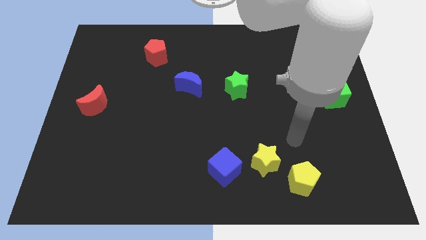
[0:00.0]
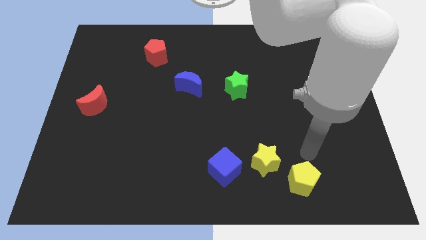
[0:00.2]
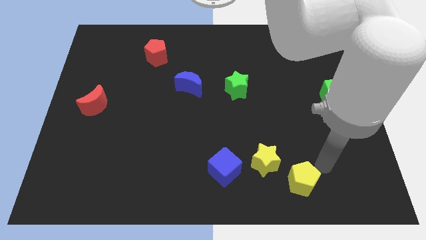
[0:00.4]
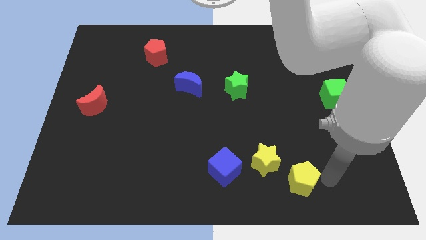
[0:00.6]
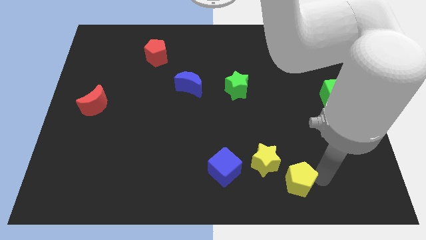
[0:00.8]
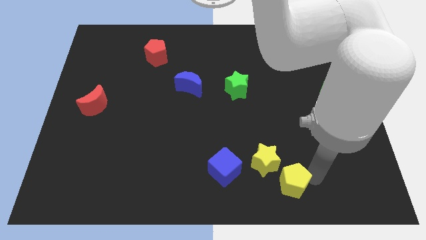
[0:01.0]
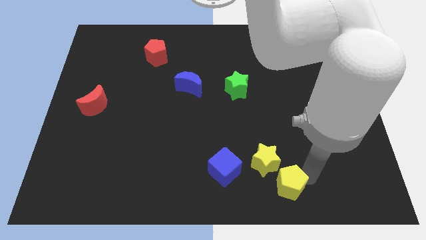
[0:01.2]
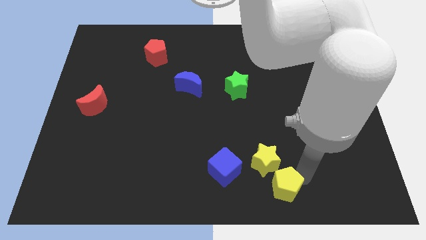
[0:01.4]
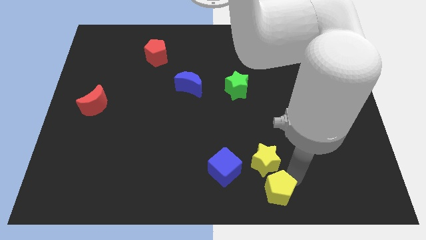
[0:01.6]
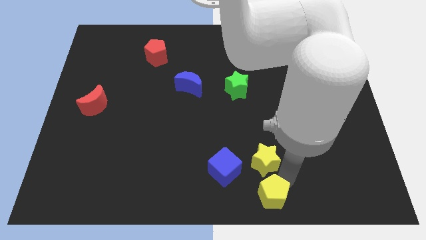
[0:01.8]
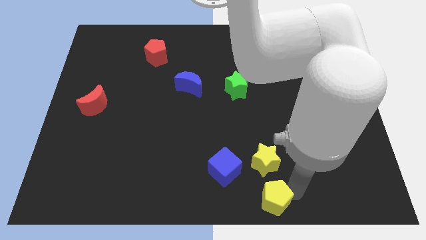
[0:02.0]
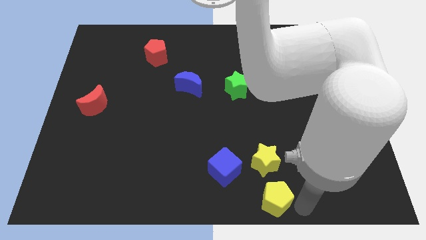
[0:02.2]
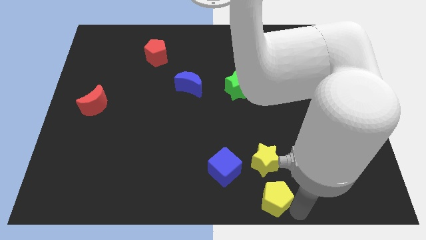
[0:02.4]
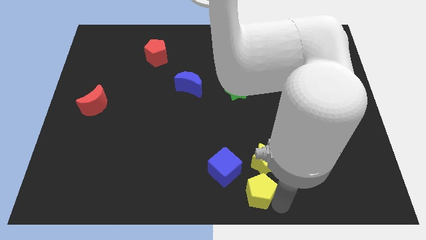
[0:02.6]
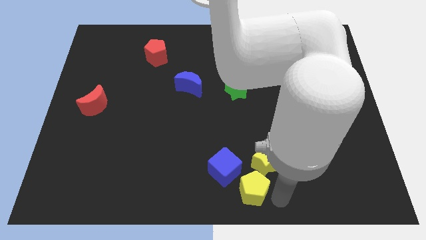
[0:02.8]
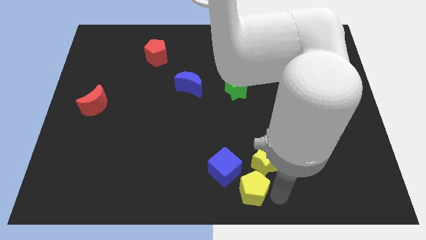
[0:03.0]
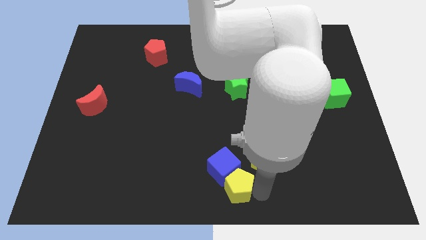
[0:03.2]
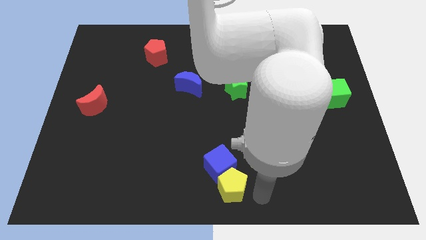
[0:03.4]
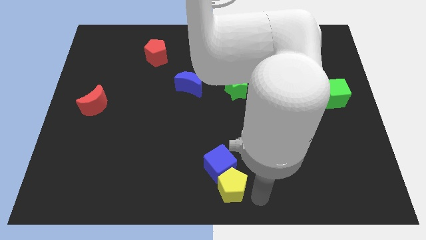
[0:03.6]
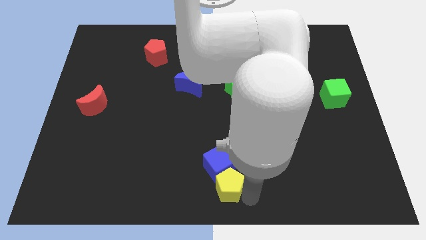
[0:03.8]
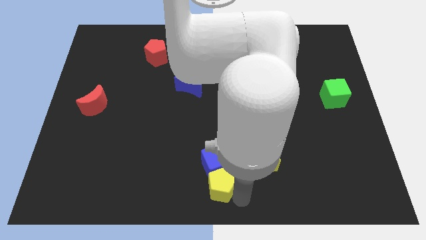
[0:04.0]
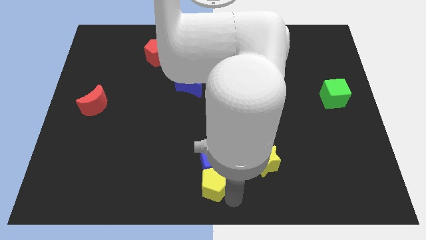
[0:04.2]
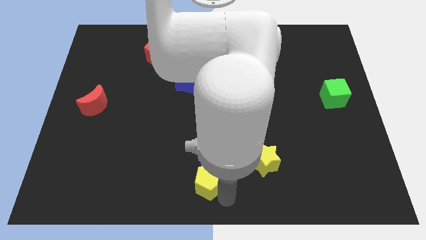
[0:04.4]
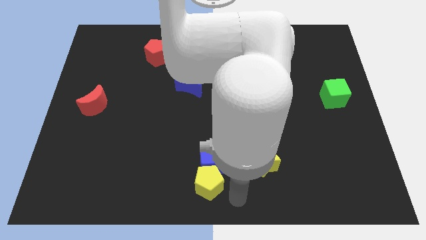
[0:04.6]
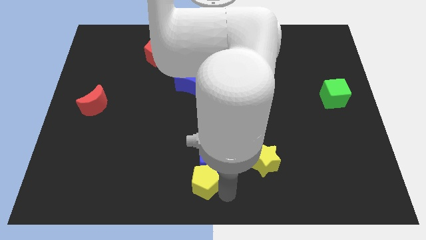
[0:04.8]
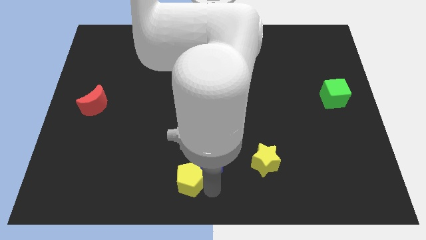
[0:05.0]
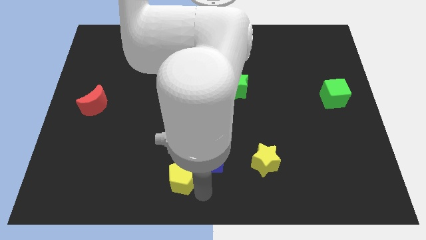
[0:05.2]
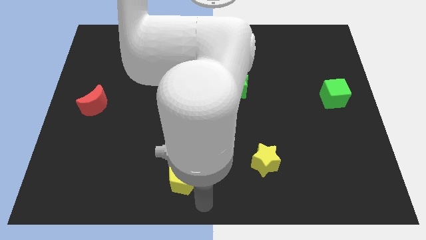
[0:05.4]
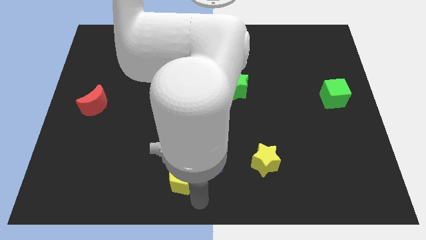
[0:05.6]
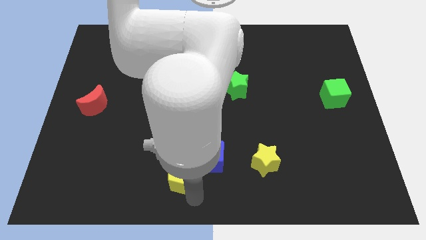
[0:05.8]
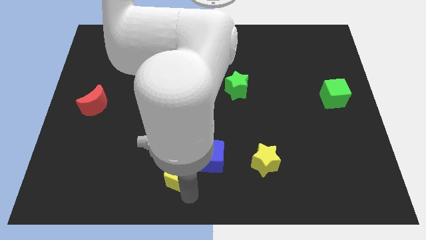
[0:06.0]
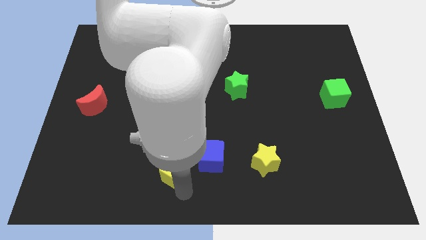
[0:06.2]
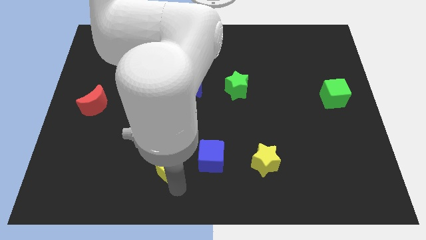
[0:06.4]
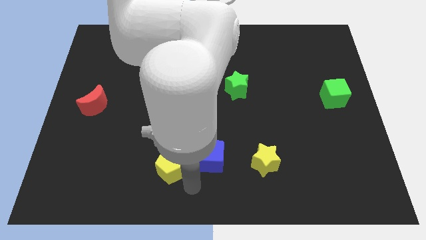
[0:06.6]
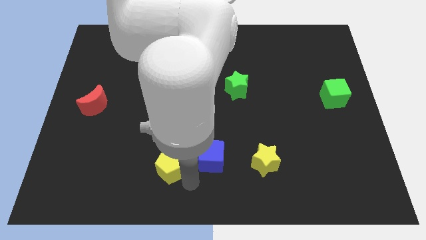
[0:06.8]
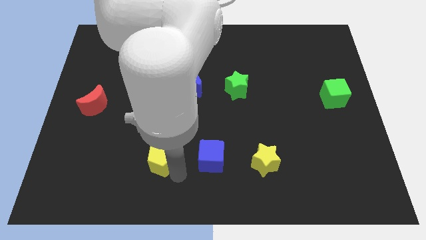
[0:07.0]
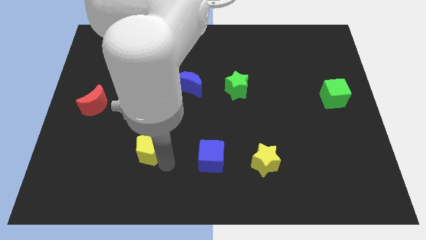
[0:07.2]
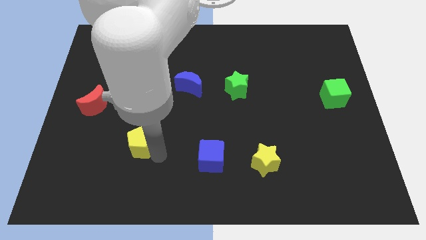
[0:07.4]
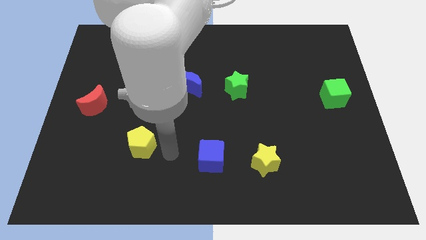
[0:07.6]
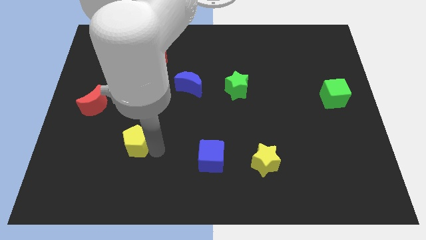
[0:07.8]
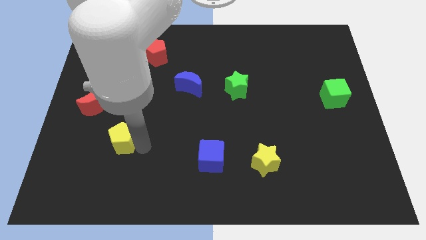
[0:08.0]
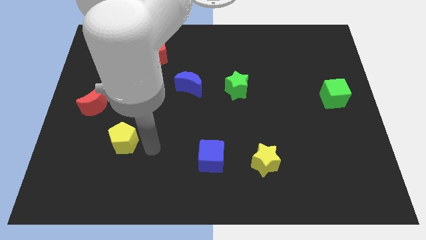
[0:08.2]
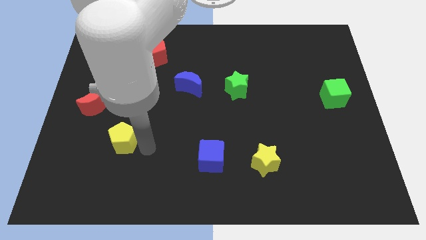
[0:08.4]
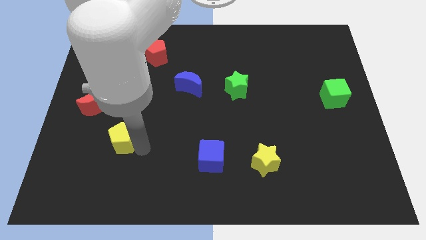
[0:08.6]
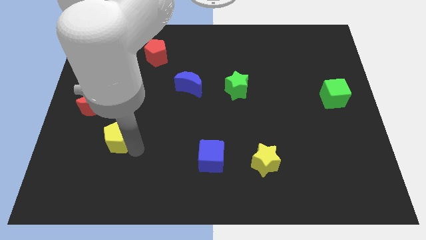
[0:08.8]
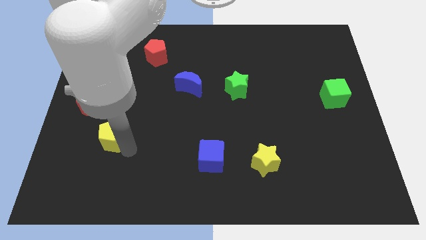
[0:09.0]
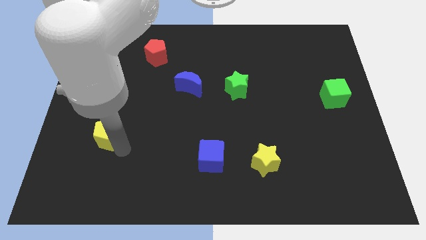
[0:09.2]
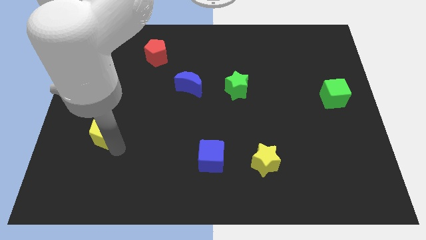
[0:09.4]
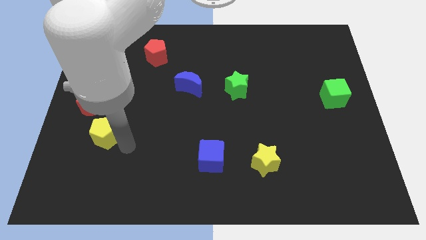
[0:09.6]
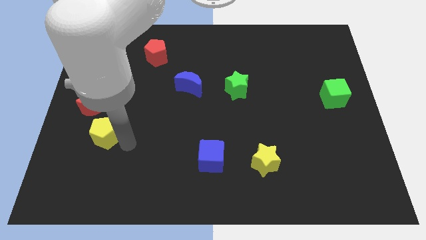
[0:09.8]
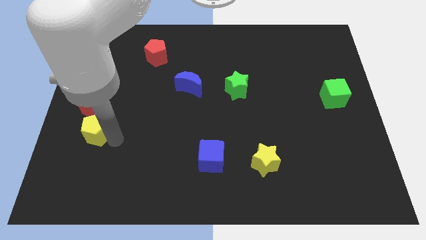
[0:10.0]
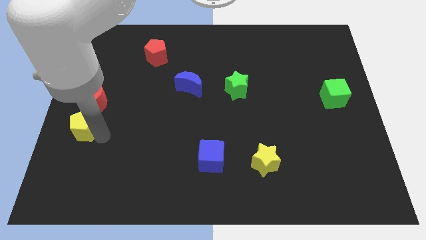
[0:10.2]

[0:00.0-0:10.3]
put the yellow pentagon to the center left

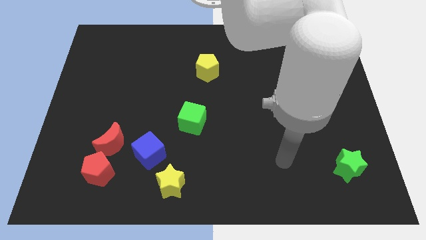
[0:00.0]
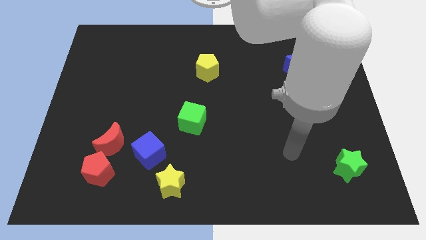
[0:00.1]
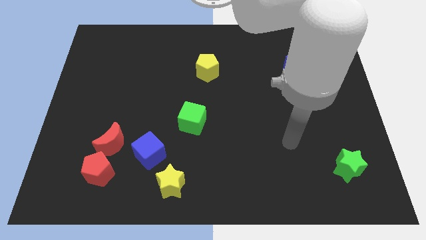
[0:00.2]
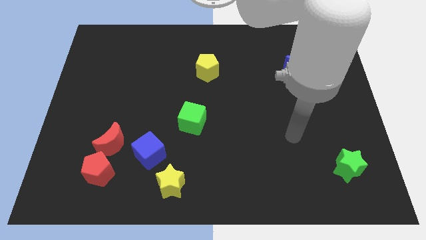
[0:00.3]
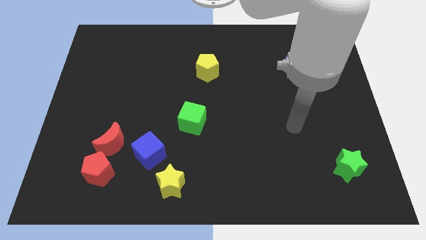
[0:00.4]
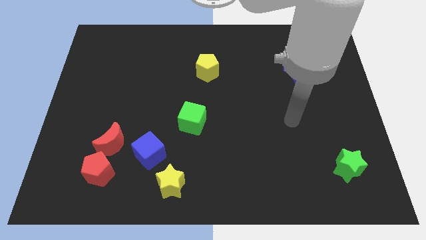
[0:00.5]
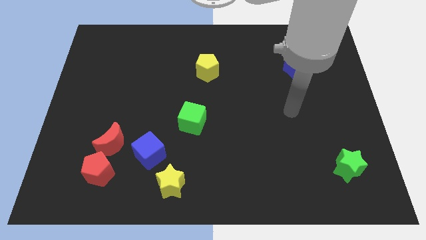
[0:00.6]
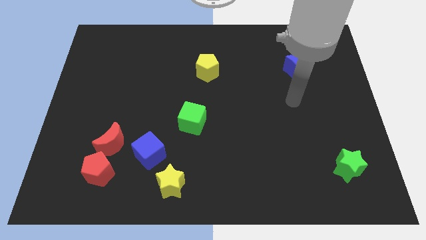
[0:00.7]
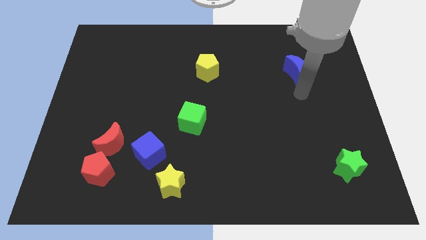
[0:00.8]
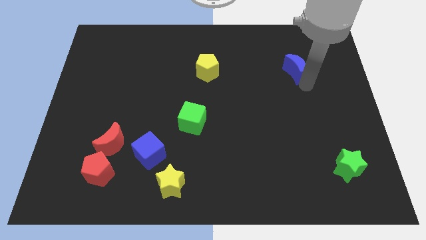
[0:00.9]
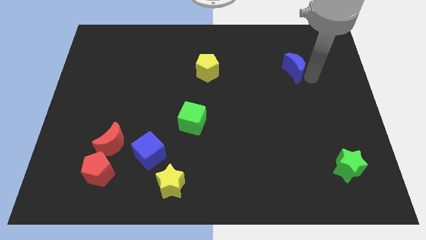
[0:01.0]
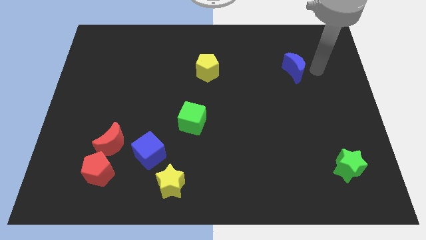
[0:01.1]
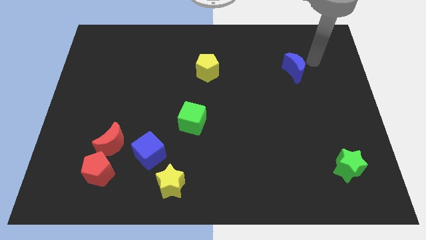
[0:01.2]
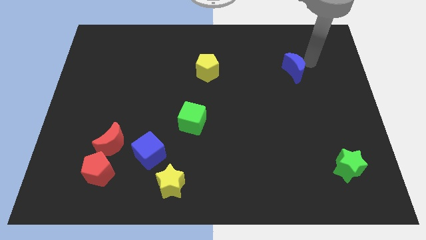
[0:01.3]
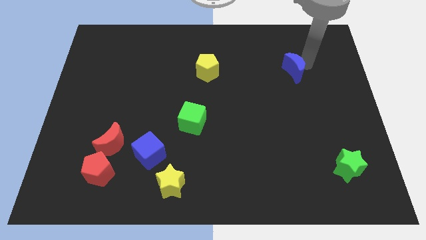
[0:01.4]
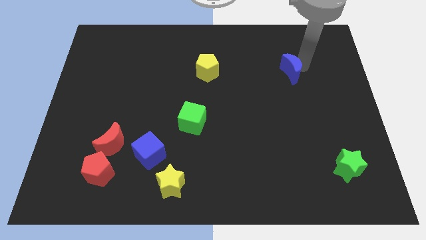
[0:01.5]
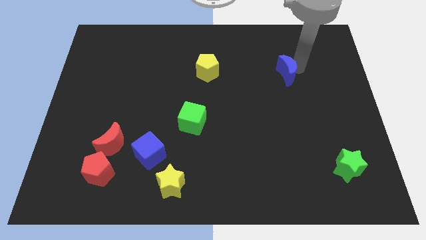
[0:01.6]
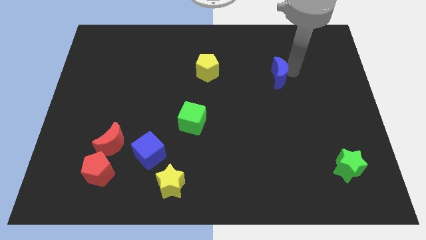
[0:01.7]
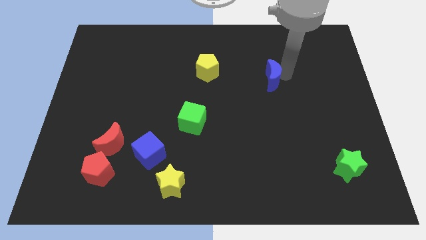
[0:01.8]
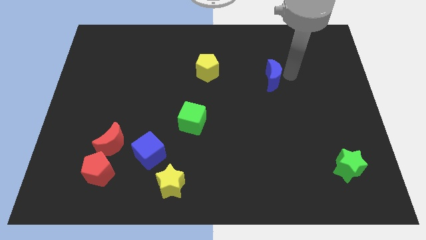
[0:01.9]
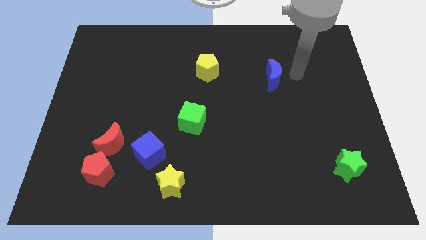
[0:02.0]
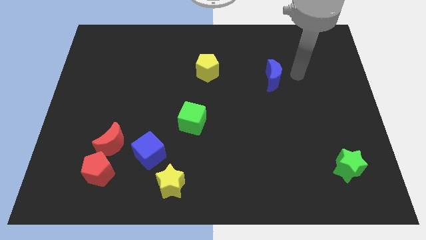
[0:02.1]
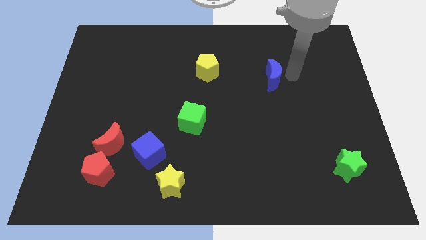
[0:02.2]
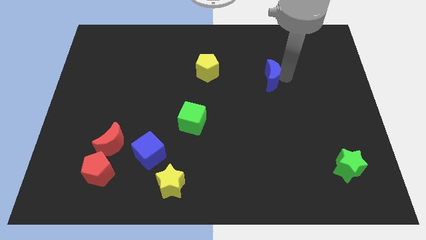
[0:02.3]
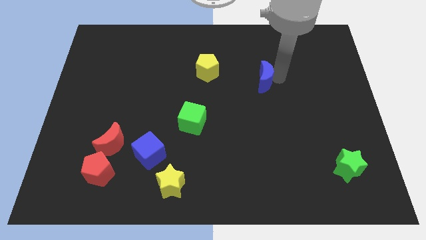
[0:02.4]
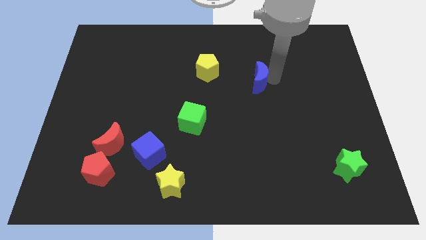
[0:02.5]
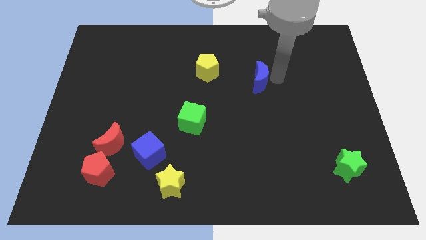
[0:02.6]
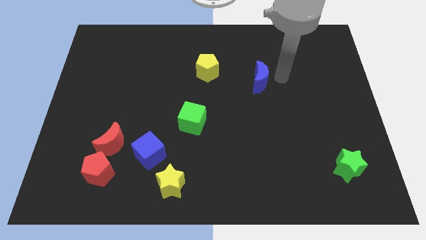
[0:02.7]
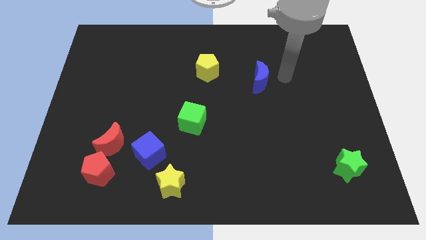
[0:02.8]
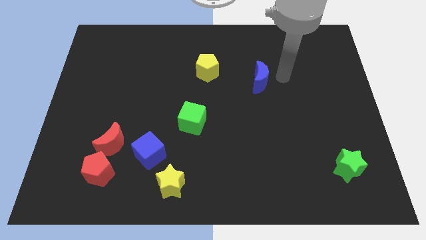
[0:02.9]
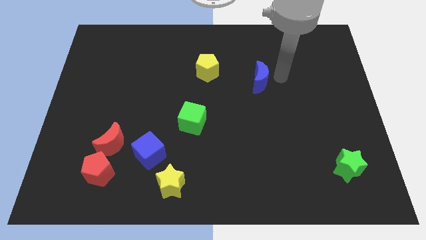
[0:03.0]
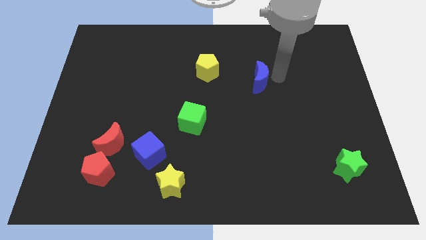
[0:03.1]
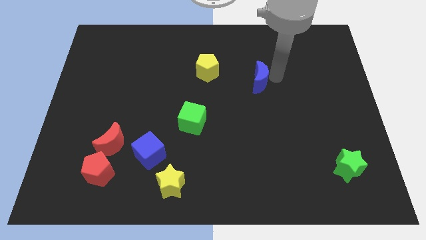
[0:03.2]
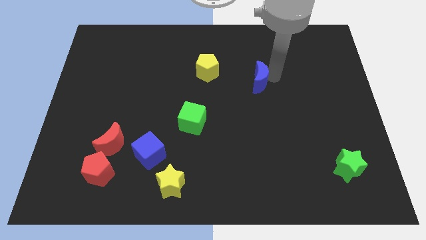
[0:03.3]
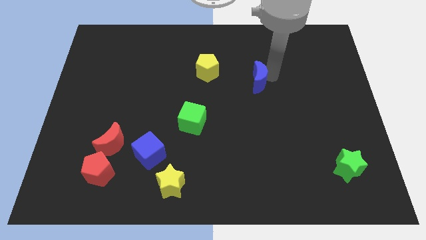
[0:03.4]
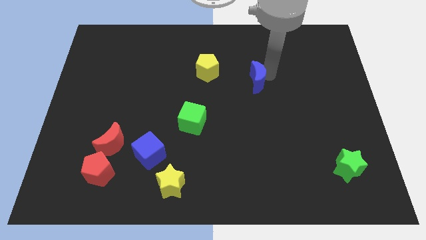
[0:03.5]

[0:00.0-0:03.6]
slide the blue moon to the center
